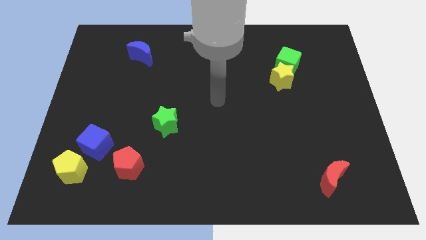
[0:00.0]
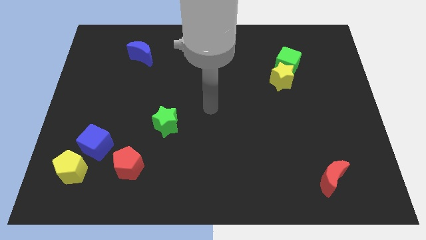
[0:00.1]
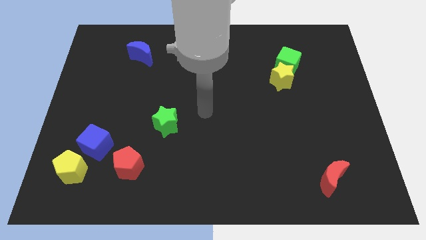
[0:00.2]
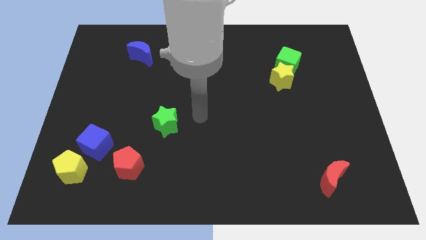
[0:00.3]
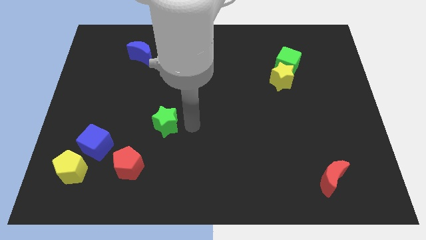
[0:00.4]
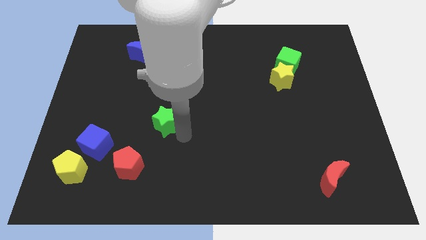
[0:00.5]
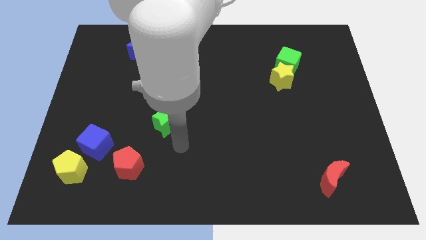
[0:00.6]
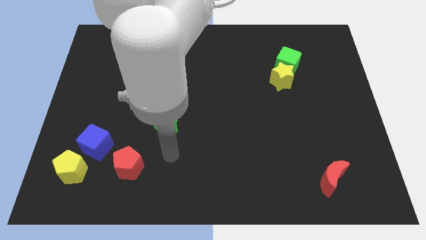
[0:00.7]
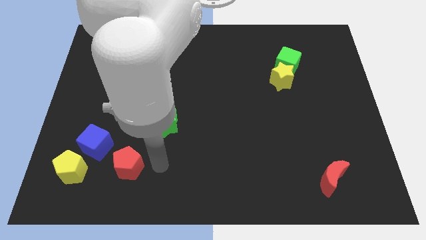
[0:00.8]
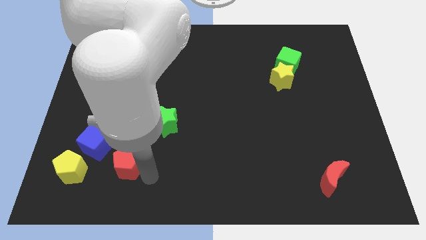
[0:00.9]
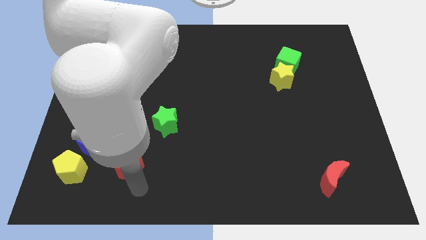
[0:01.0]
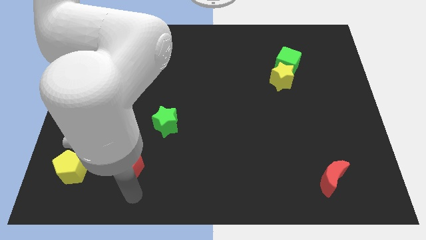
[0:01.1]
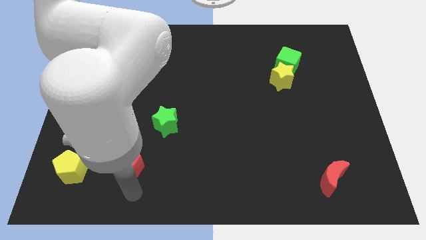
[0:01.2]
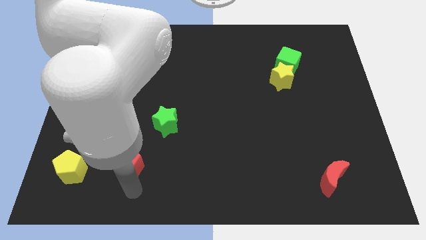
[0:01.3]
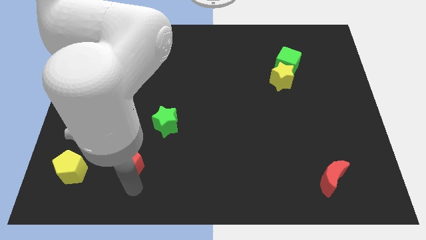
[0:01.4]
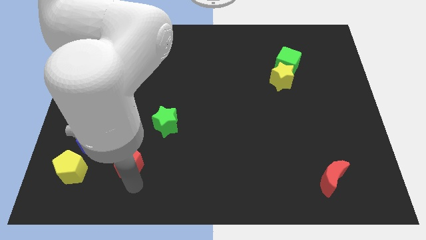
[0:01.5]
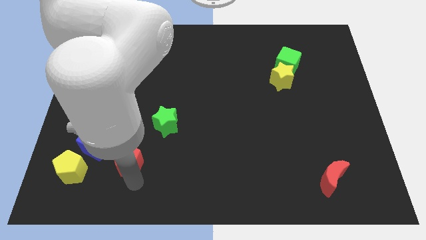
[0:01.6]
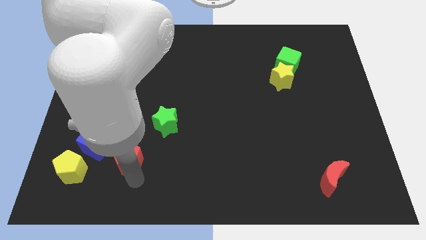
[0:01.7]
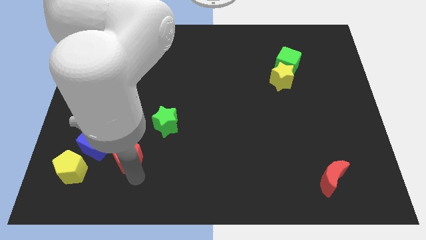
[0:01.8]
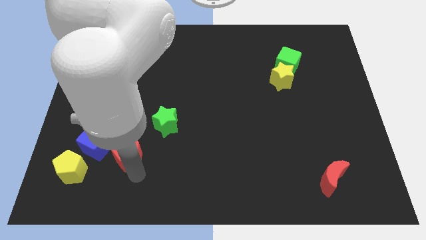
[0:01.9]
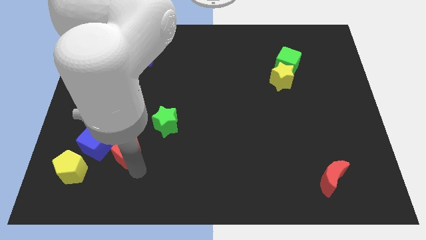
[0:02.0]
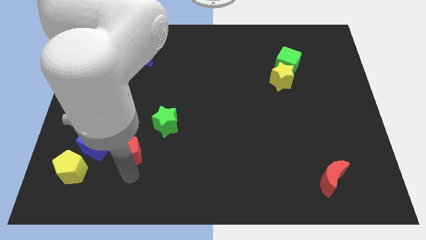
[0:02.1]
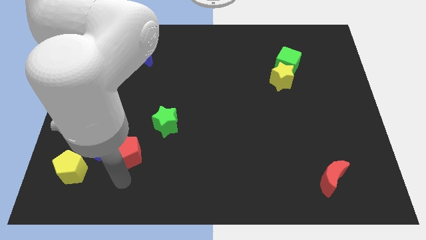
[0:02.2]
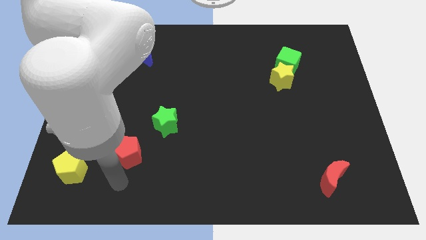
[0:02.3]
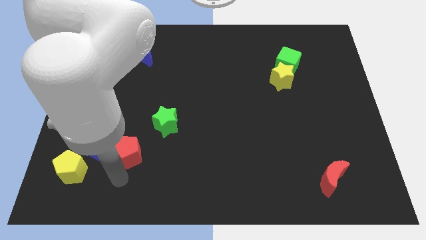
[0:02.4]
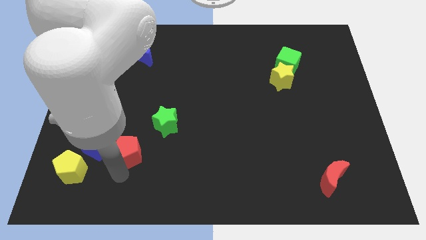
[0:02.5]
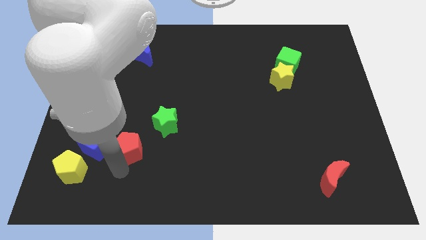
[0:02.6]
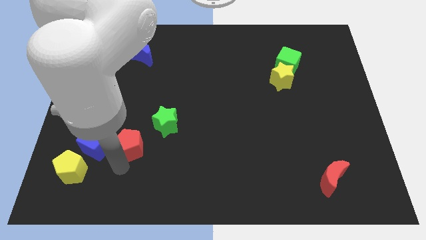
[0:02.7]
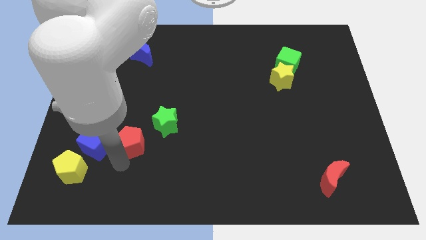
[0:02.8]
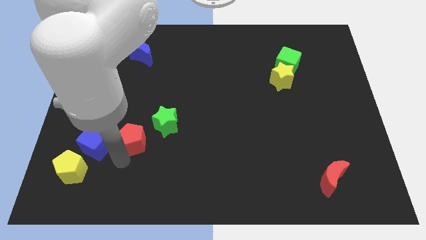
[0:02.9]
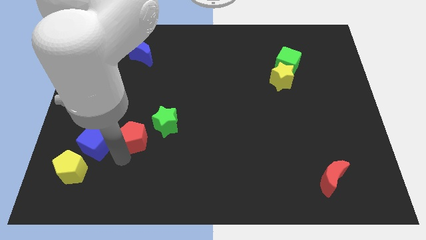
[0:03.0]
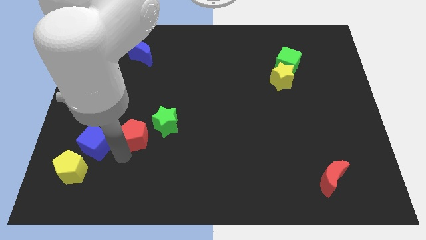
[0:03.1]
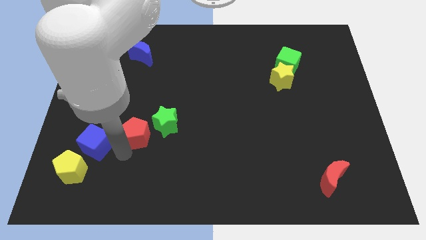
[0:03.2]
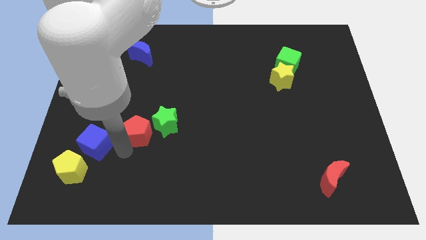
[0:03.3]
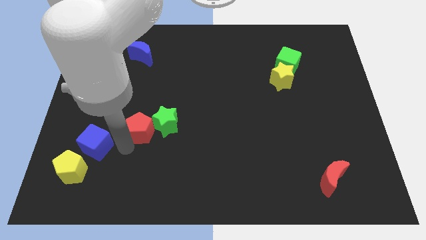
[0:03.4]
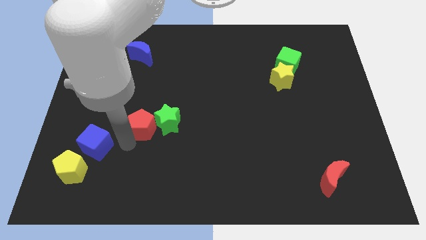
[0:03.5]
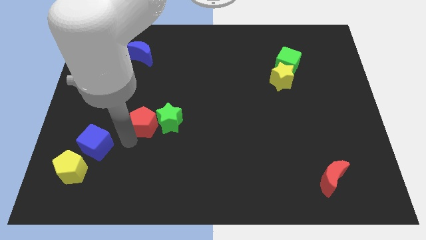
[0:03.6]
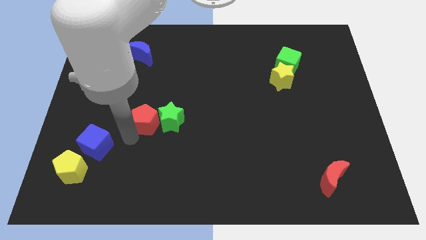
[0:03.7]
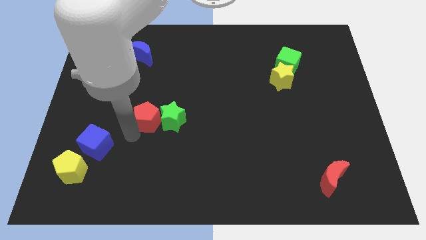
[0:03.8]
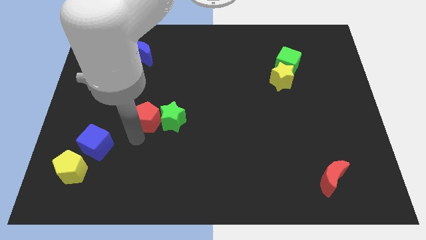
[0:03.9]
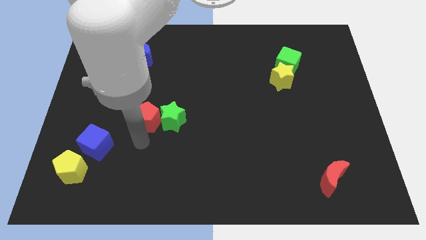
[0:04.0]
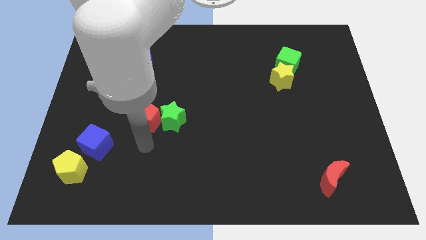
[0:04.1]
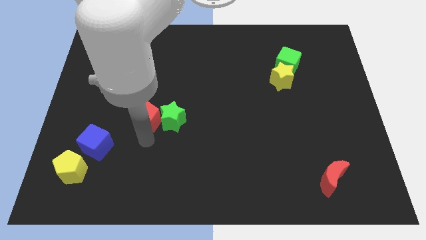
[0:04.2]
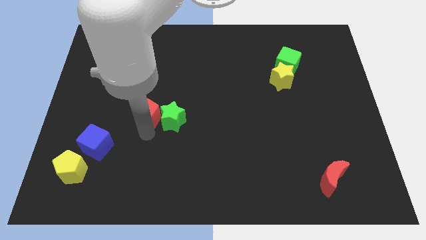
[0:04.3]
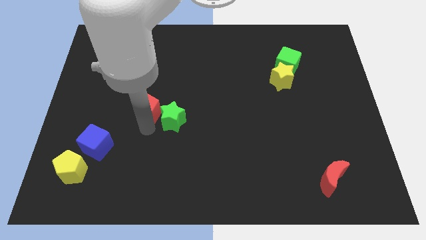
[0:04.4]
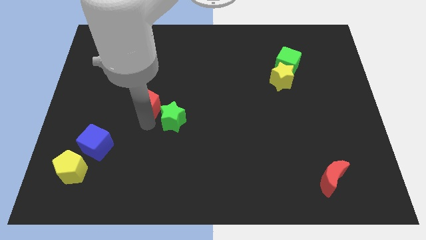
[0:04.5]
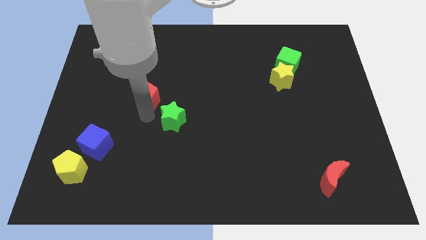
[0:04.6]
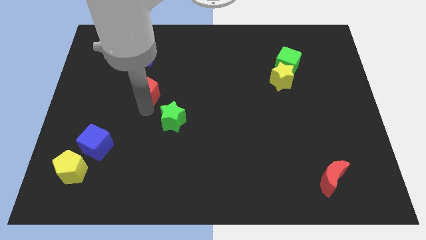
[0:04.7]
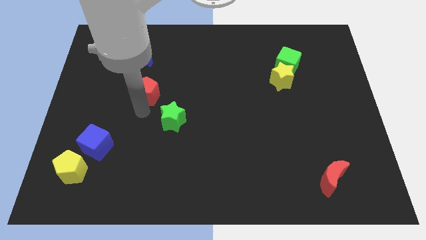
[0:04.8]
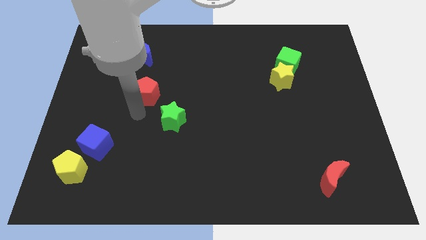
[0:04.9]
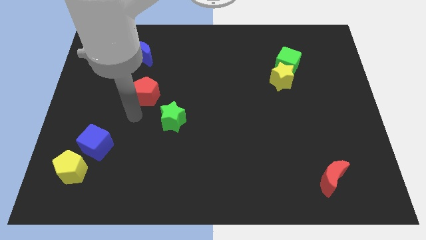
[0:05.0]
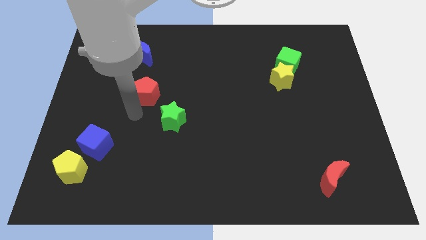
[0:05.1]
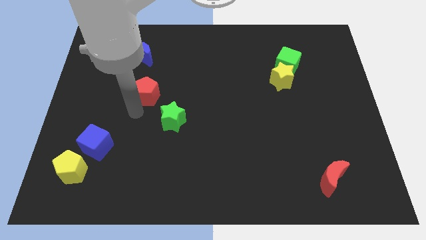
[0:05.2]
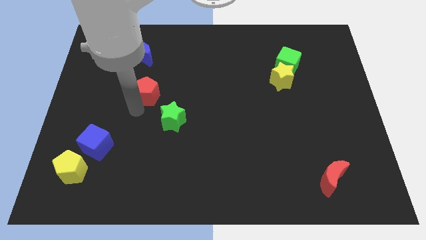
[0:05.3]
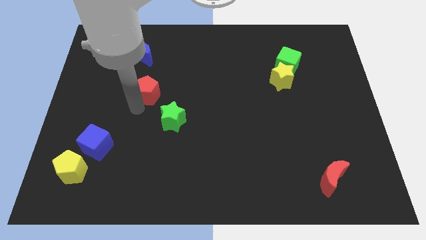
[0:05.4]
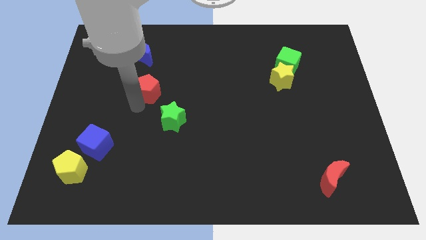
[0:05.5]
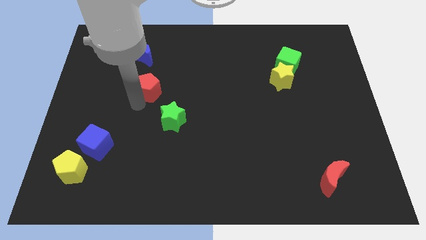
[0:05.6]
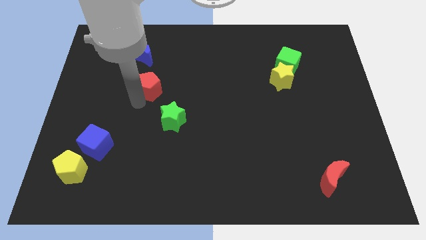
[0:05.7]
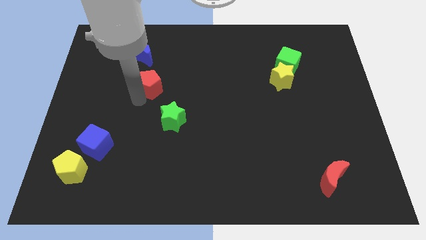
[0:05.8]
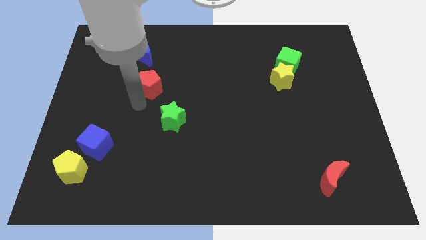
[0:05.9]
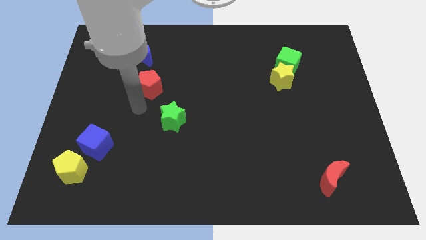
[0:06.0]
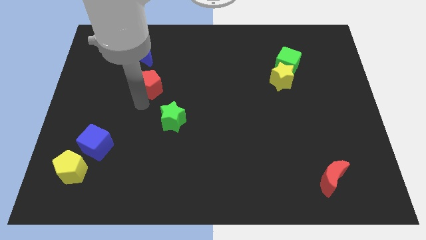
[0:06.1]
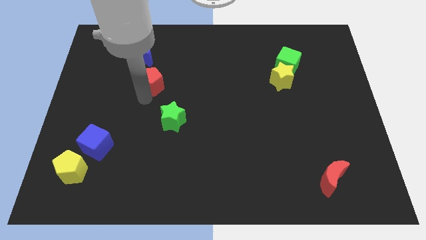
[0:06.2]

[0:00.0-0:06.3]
put the red pentagon to the bottom right side of the blue moon

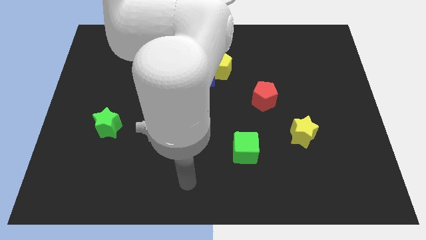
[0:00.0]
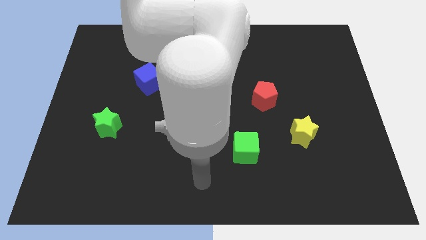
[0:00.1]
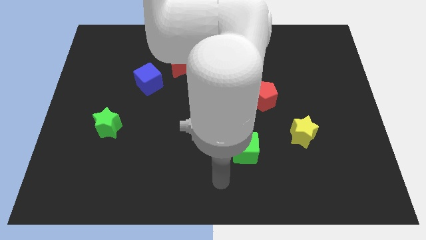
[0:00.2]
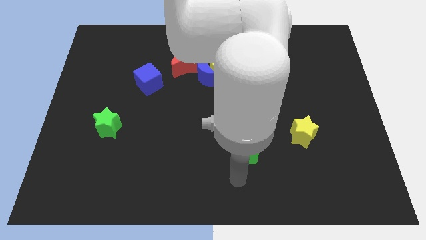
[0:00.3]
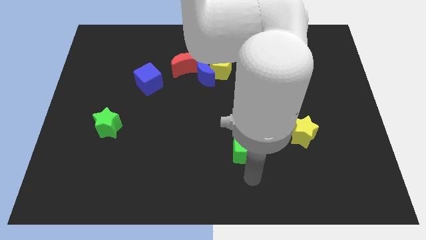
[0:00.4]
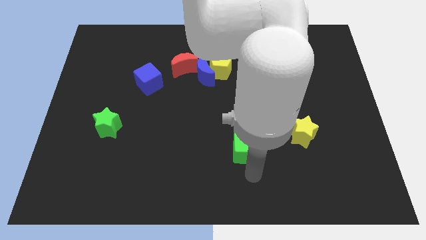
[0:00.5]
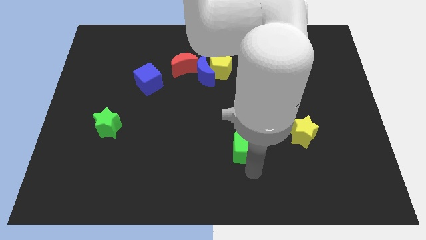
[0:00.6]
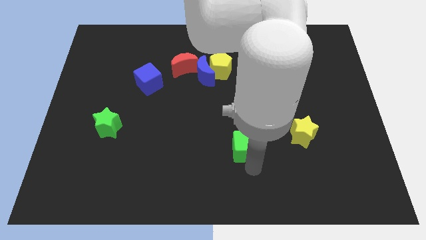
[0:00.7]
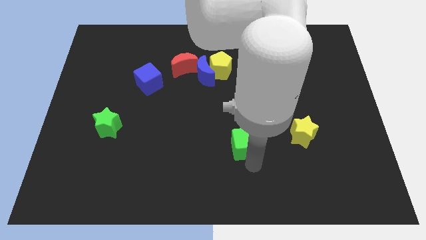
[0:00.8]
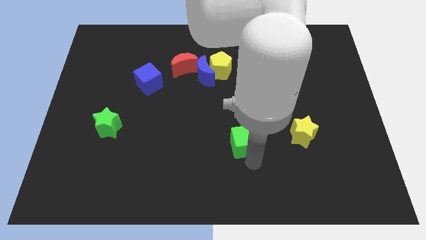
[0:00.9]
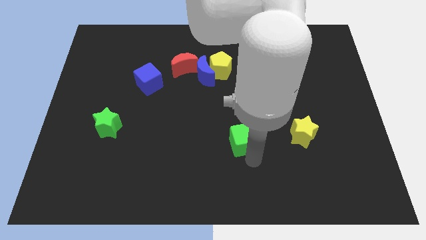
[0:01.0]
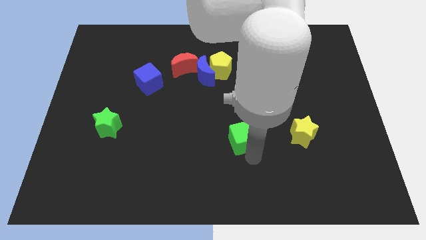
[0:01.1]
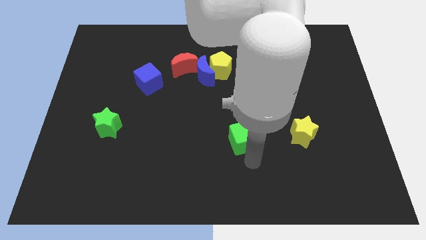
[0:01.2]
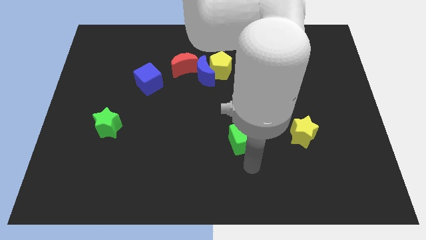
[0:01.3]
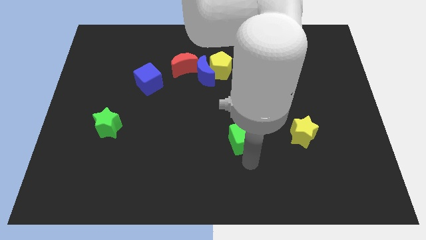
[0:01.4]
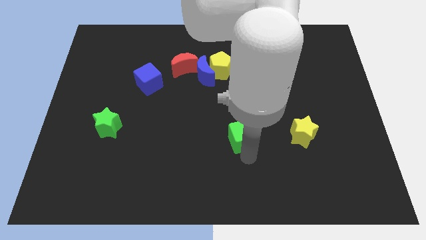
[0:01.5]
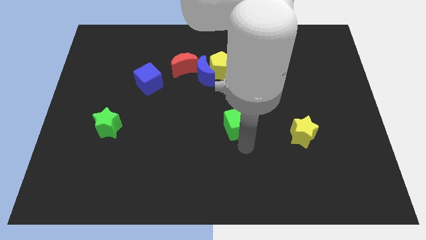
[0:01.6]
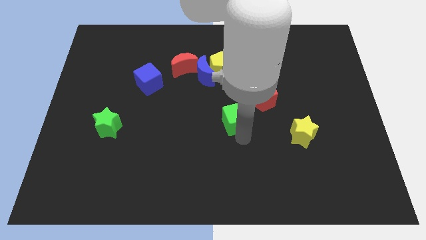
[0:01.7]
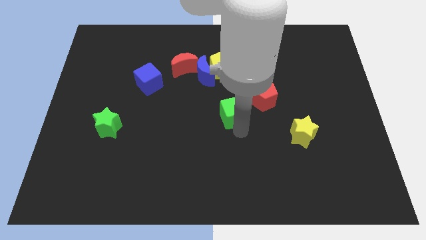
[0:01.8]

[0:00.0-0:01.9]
move the green cube left of the red pentagon
